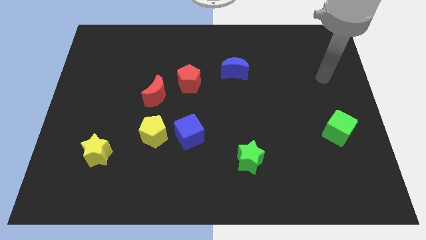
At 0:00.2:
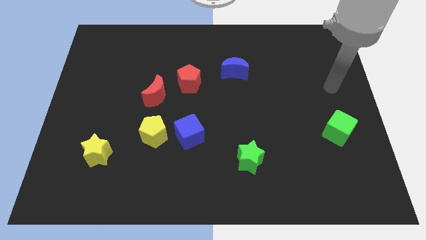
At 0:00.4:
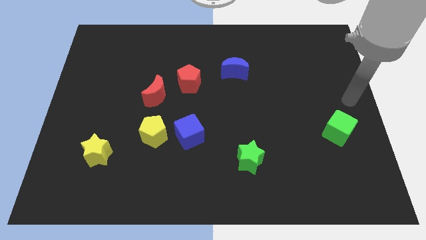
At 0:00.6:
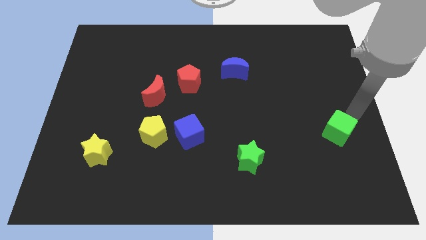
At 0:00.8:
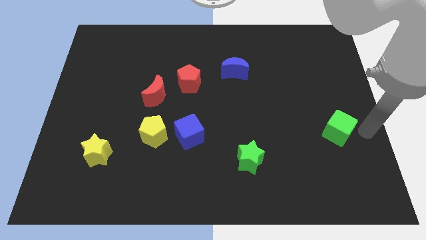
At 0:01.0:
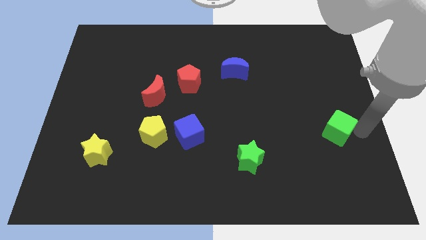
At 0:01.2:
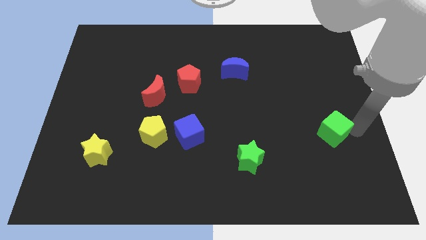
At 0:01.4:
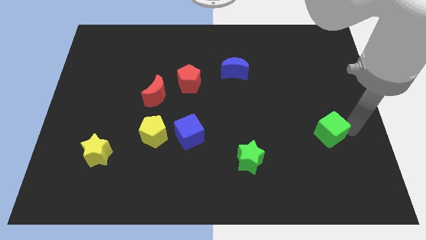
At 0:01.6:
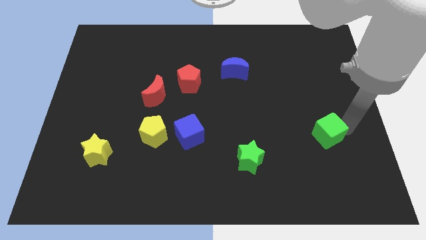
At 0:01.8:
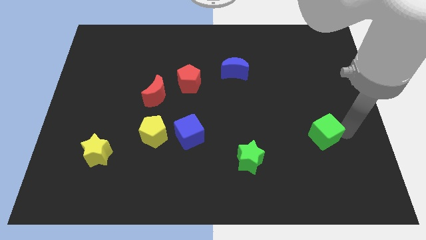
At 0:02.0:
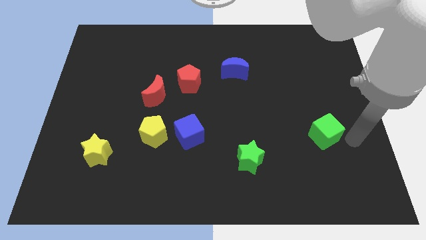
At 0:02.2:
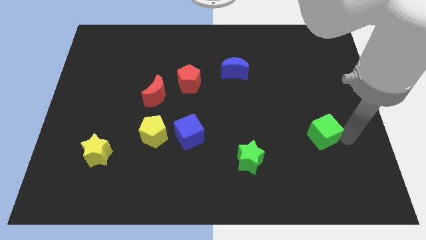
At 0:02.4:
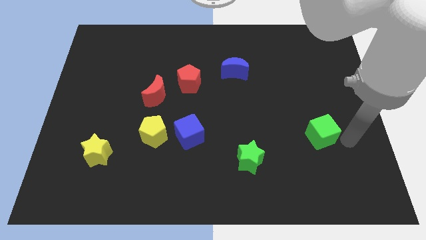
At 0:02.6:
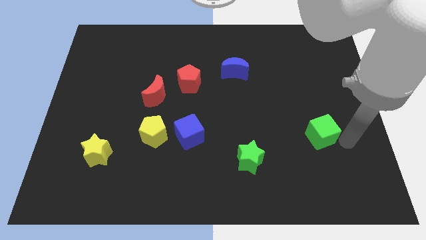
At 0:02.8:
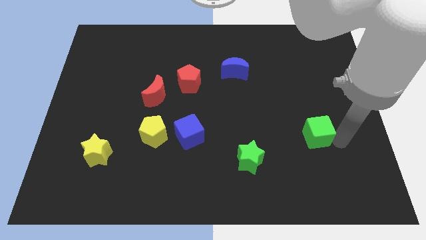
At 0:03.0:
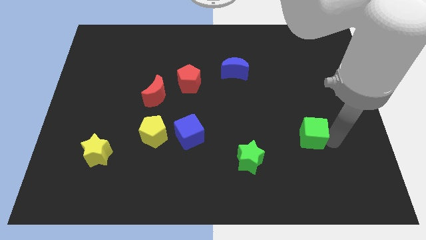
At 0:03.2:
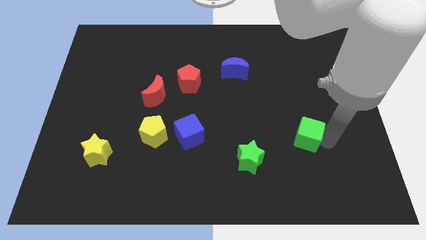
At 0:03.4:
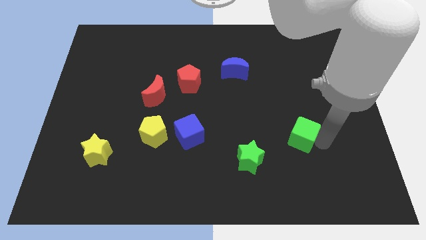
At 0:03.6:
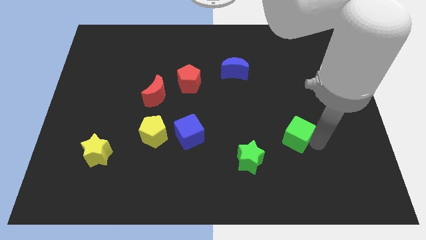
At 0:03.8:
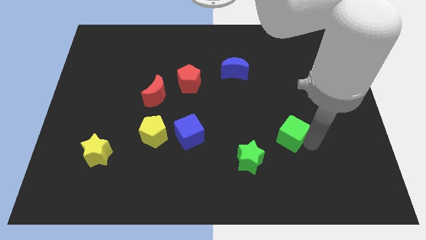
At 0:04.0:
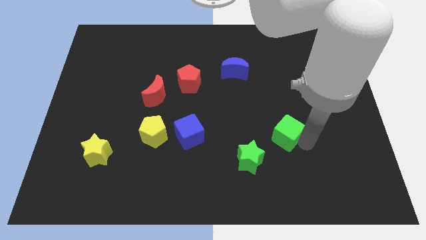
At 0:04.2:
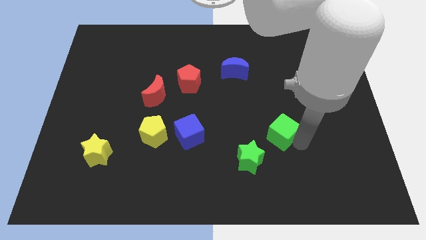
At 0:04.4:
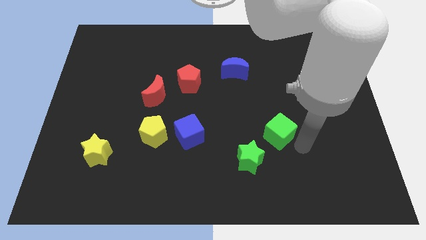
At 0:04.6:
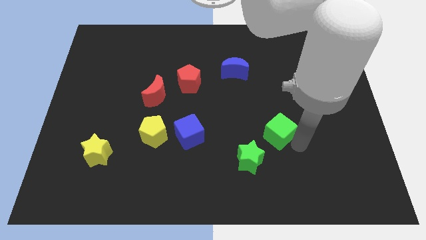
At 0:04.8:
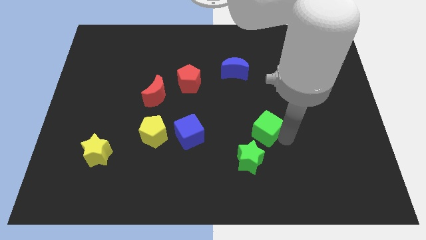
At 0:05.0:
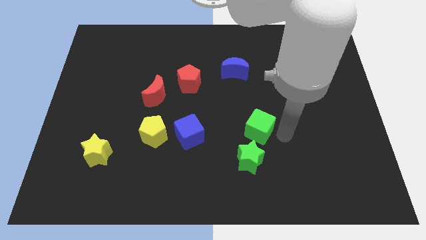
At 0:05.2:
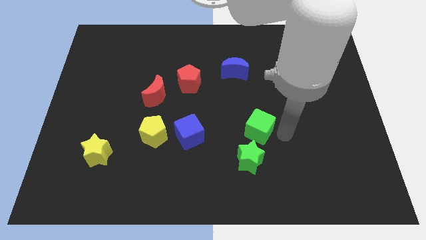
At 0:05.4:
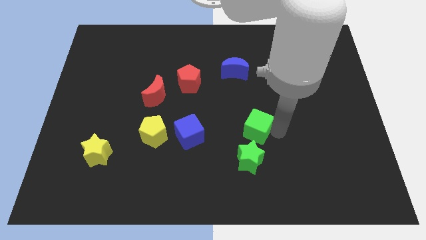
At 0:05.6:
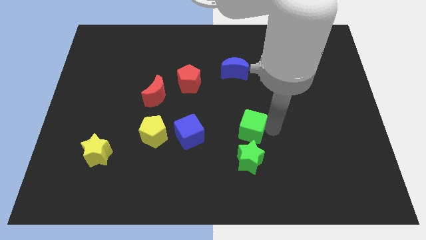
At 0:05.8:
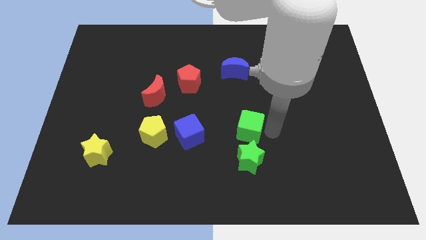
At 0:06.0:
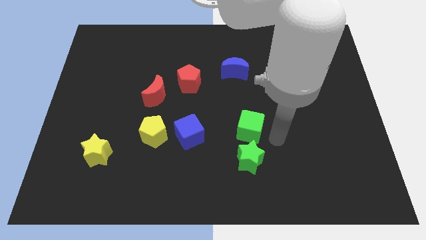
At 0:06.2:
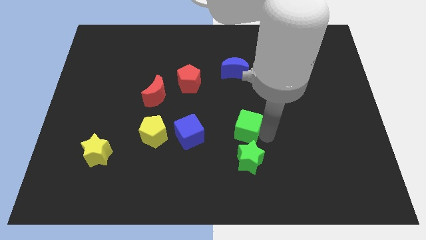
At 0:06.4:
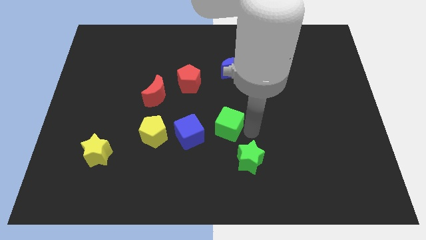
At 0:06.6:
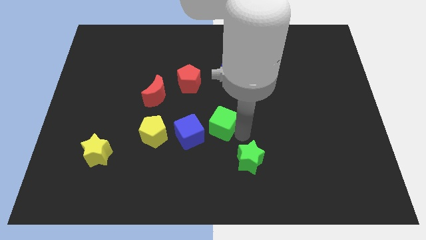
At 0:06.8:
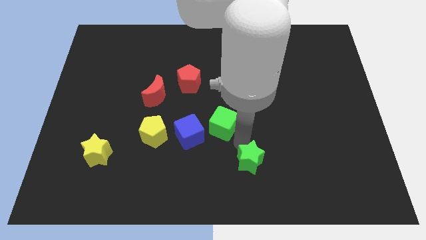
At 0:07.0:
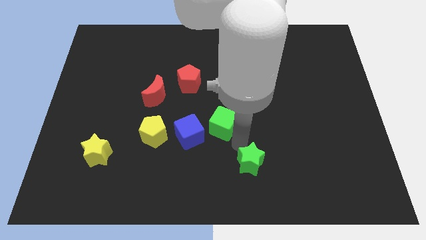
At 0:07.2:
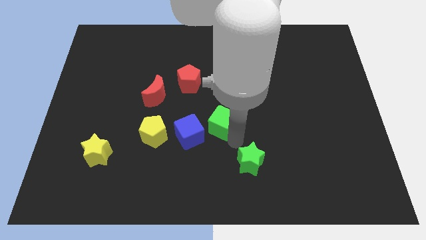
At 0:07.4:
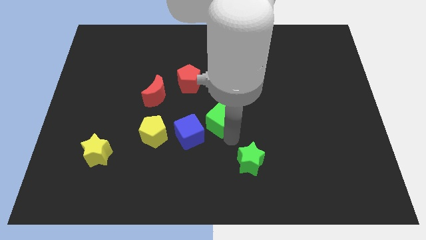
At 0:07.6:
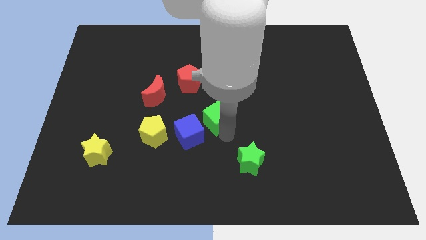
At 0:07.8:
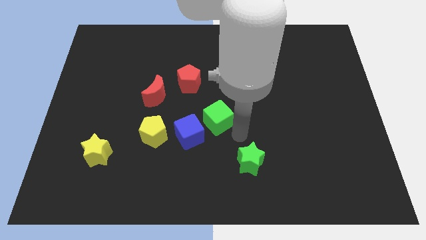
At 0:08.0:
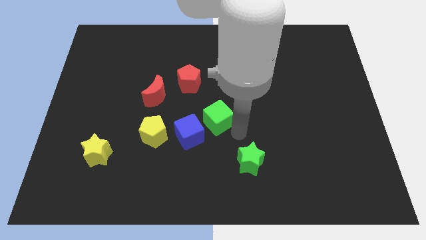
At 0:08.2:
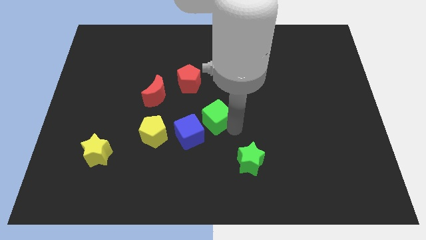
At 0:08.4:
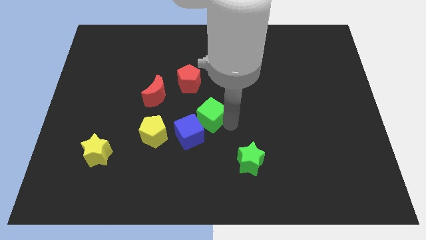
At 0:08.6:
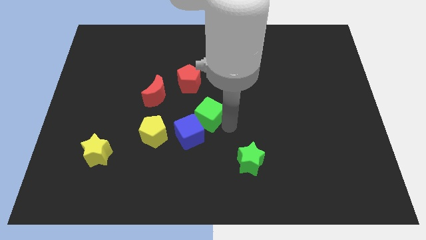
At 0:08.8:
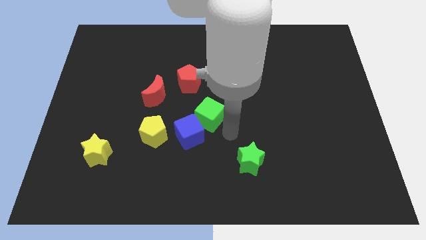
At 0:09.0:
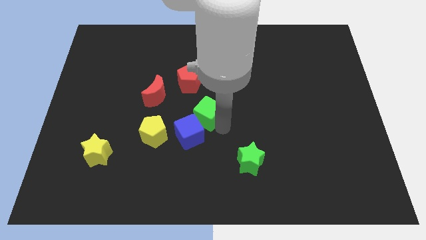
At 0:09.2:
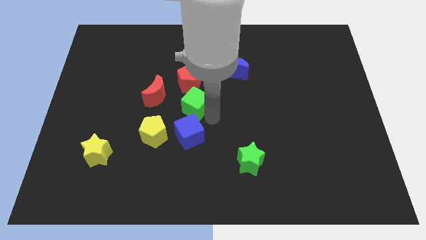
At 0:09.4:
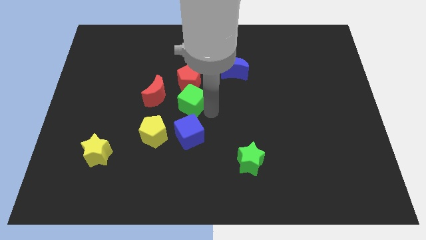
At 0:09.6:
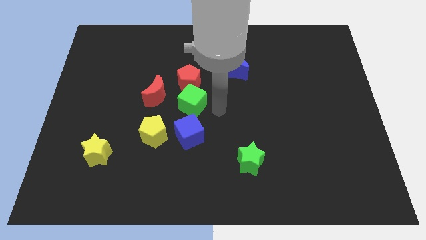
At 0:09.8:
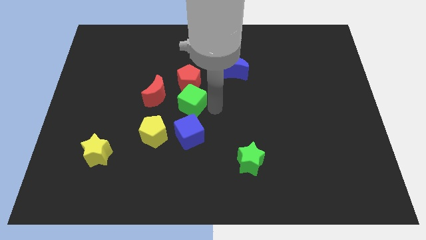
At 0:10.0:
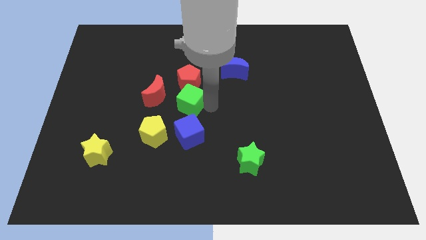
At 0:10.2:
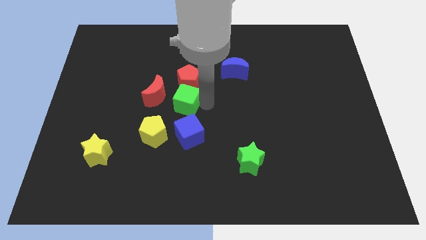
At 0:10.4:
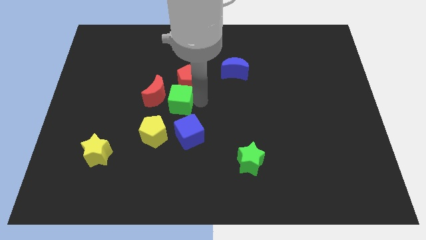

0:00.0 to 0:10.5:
slide the green cube to the red moon

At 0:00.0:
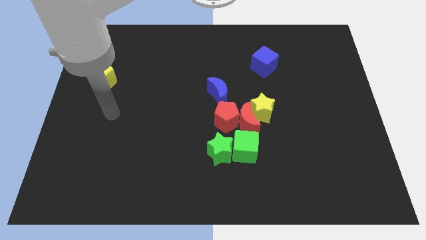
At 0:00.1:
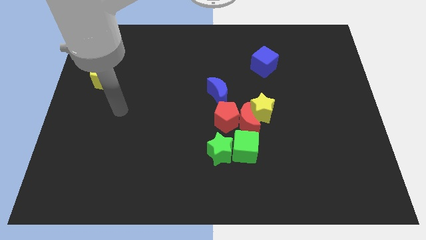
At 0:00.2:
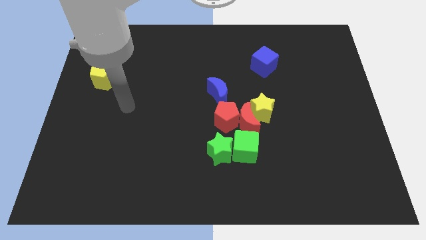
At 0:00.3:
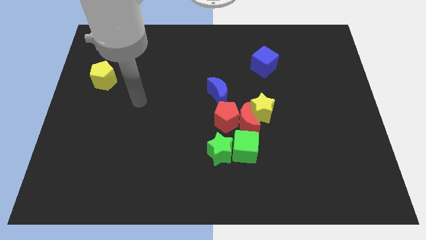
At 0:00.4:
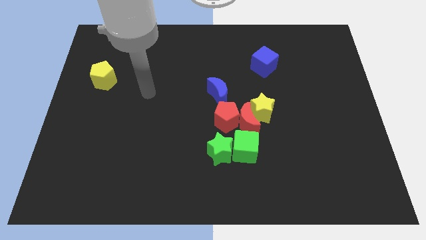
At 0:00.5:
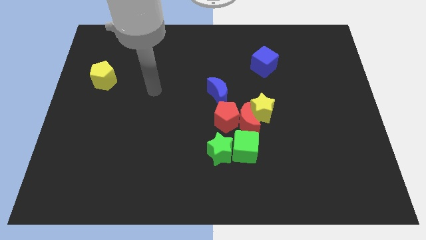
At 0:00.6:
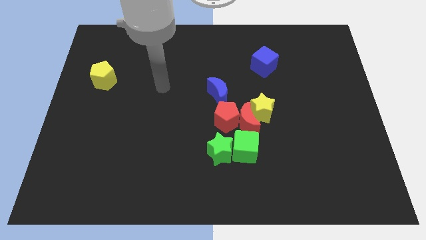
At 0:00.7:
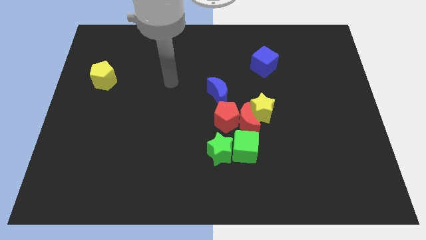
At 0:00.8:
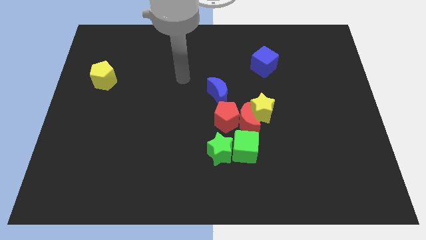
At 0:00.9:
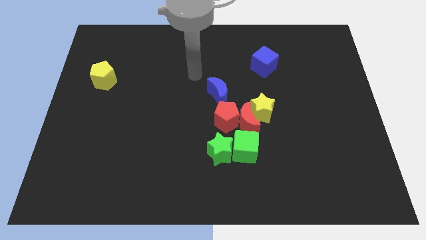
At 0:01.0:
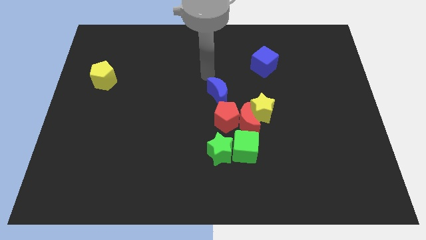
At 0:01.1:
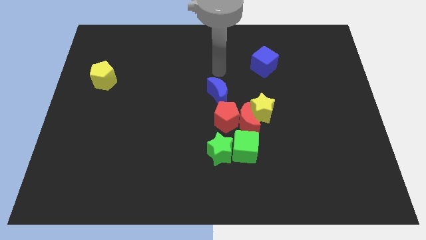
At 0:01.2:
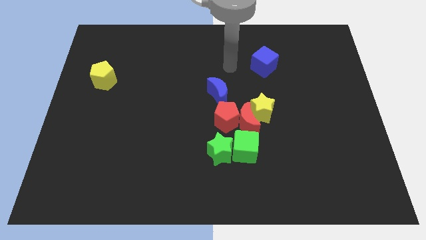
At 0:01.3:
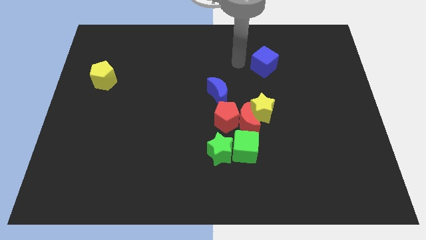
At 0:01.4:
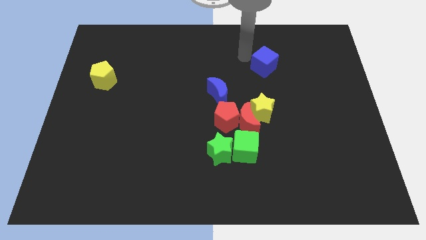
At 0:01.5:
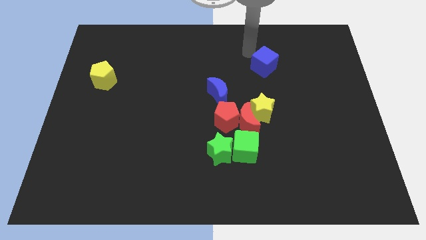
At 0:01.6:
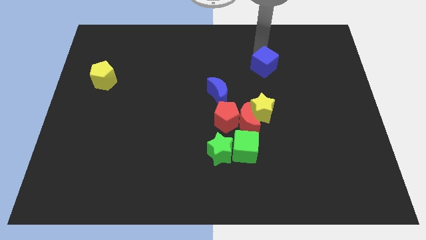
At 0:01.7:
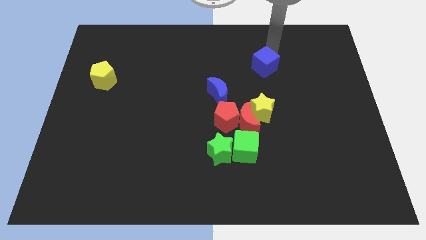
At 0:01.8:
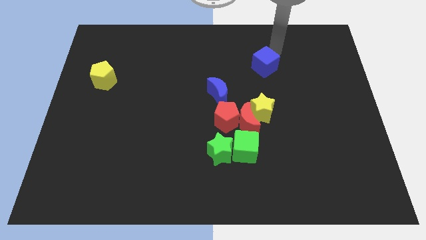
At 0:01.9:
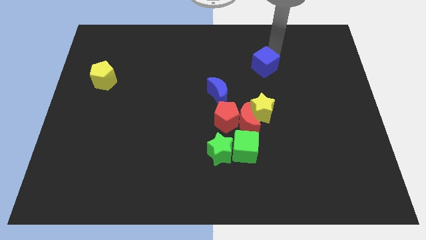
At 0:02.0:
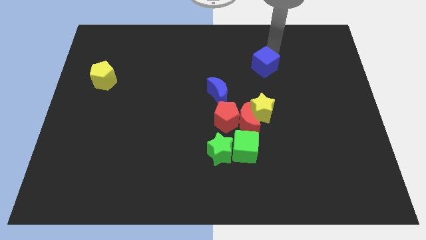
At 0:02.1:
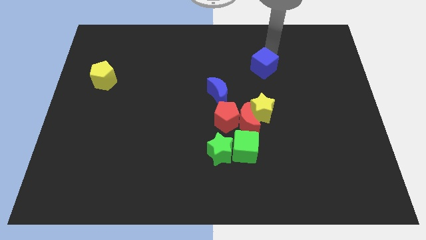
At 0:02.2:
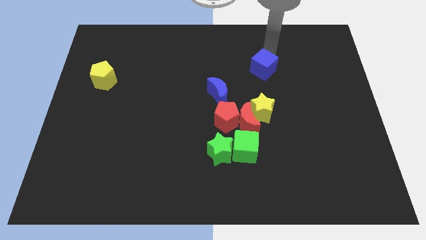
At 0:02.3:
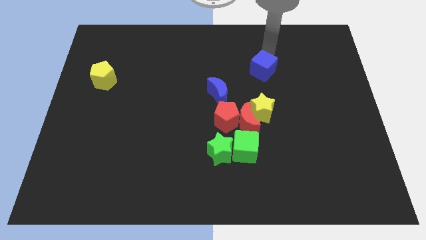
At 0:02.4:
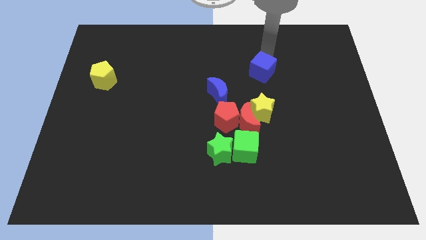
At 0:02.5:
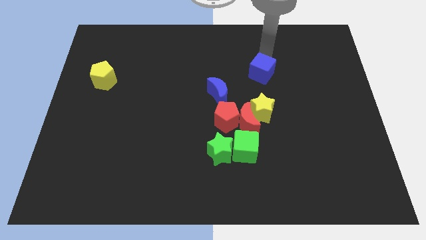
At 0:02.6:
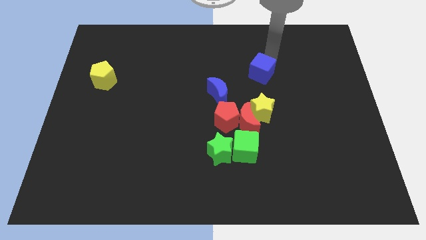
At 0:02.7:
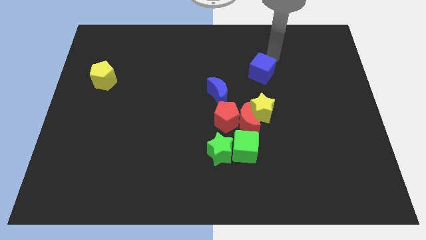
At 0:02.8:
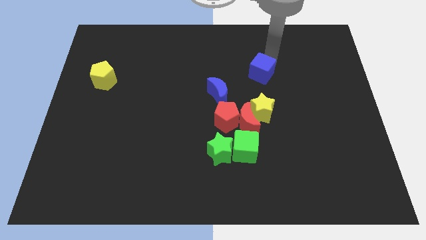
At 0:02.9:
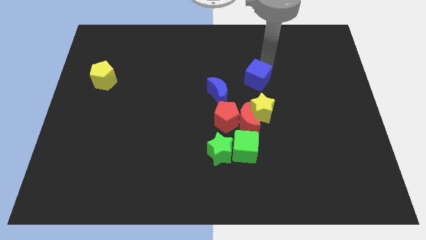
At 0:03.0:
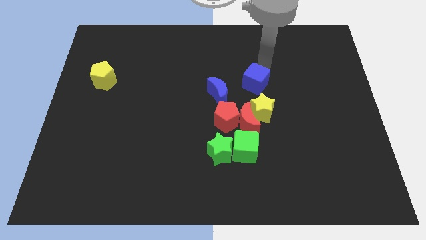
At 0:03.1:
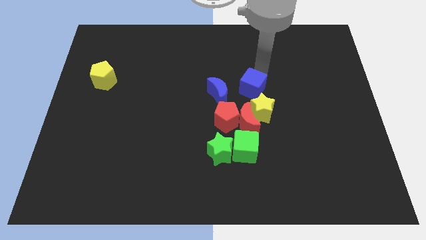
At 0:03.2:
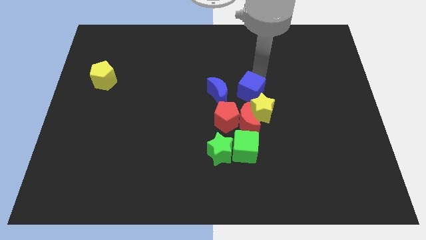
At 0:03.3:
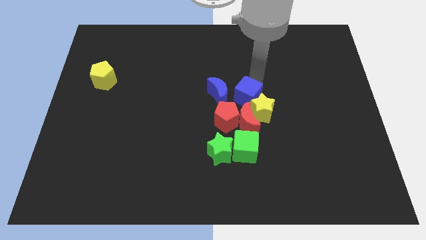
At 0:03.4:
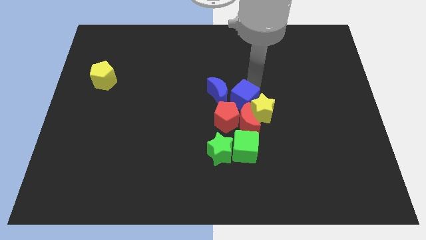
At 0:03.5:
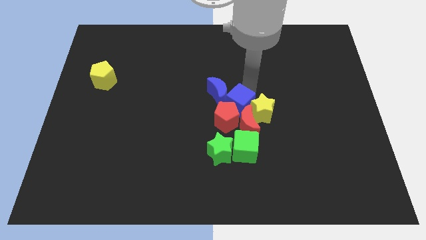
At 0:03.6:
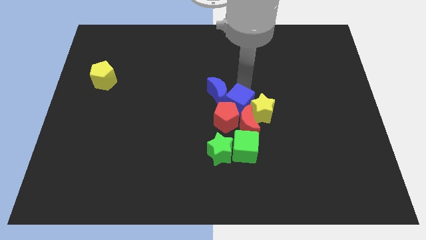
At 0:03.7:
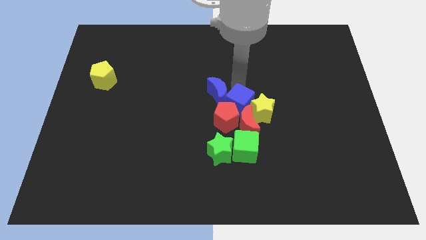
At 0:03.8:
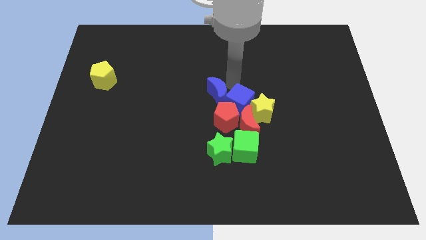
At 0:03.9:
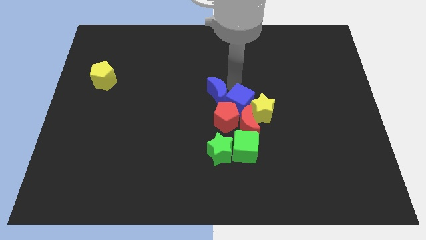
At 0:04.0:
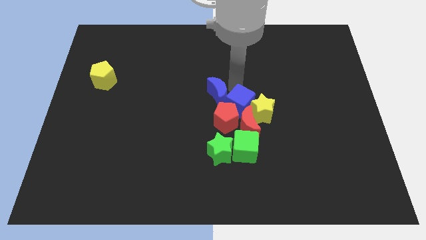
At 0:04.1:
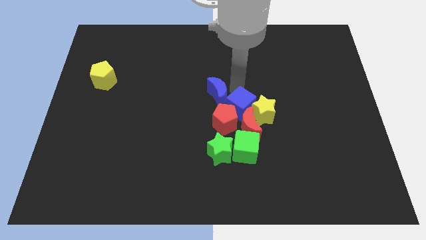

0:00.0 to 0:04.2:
put the blue cube close to the red moon
